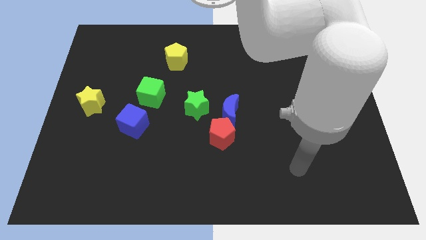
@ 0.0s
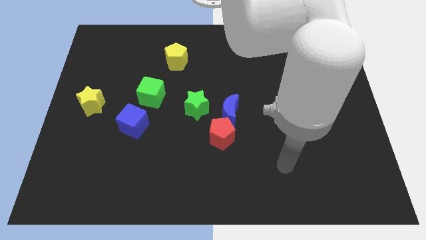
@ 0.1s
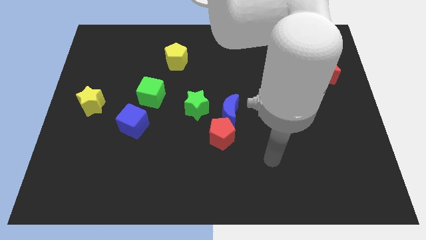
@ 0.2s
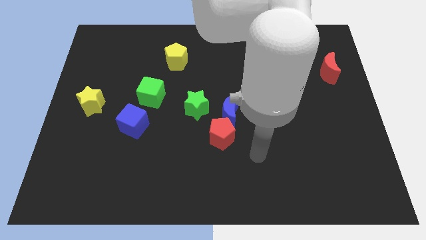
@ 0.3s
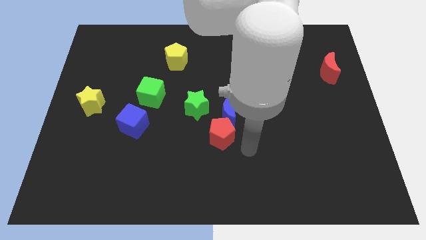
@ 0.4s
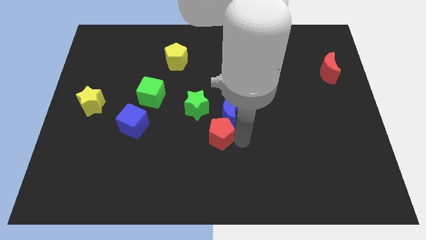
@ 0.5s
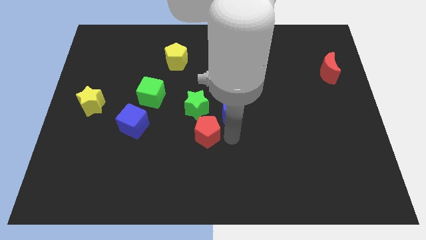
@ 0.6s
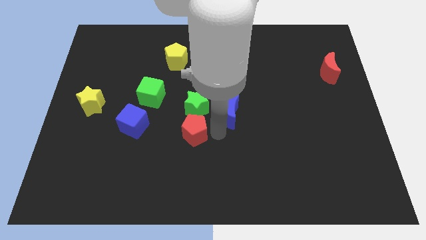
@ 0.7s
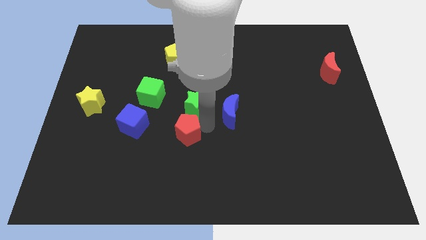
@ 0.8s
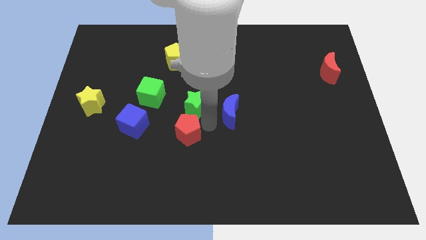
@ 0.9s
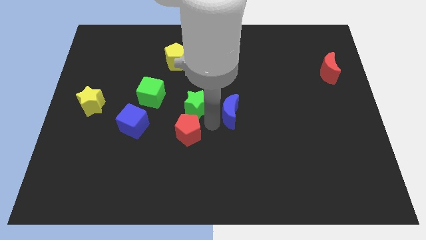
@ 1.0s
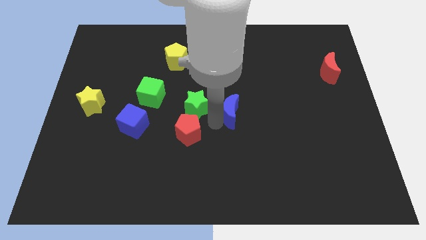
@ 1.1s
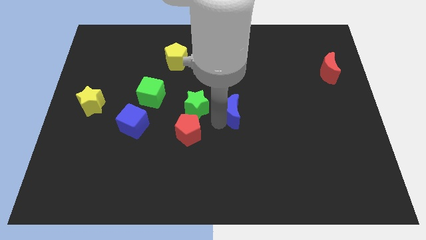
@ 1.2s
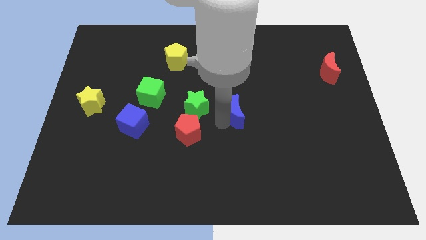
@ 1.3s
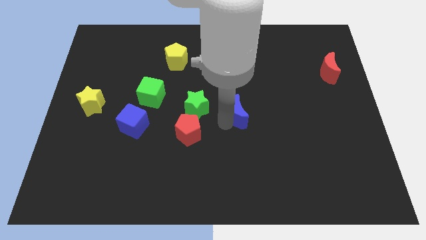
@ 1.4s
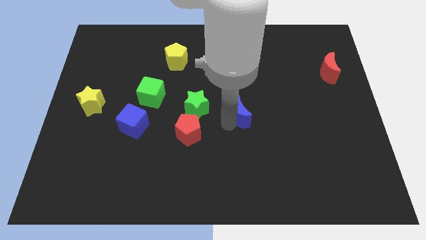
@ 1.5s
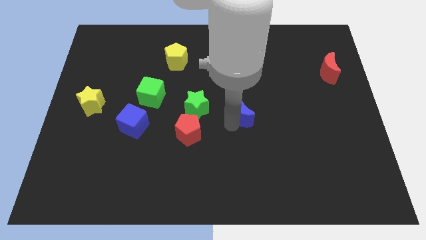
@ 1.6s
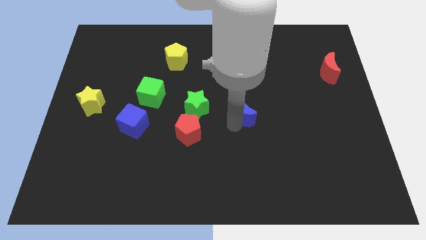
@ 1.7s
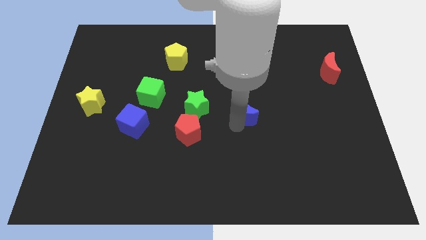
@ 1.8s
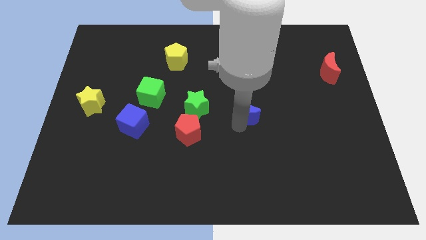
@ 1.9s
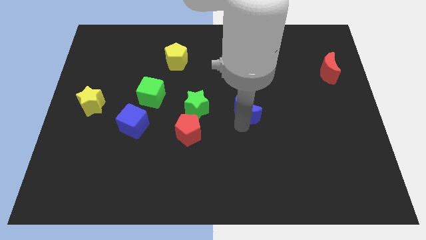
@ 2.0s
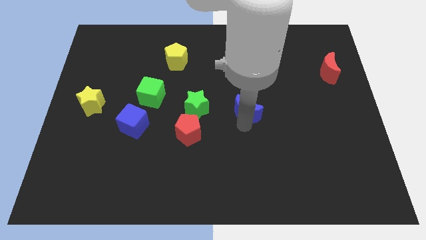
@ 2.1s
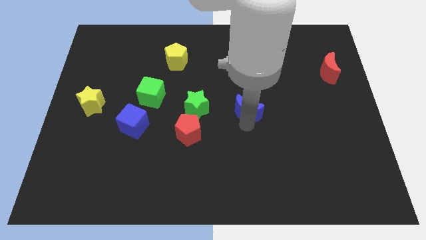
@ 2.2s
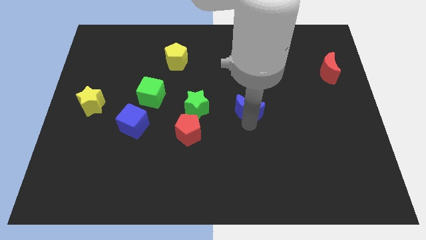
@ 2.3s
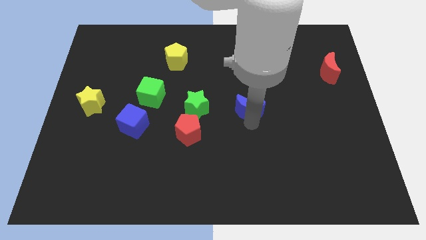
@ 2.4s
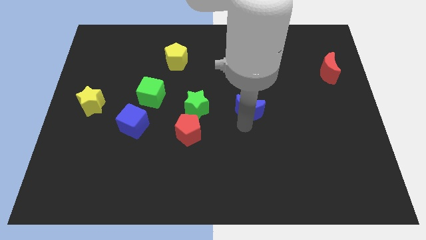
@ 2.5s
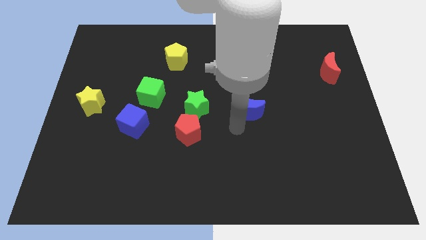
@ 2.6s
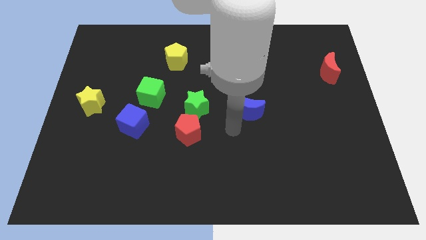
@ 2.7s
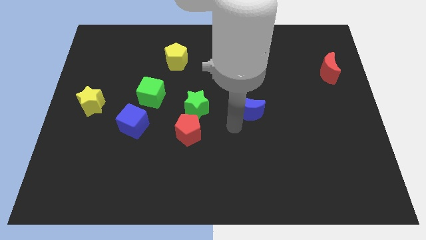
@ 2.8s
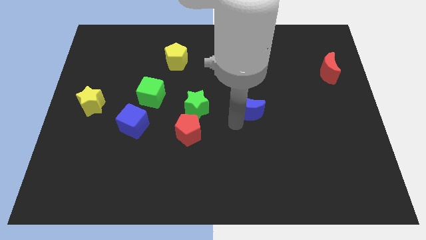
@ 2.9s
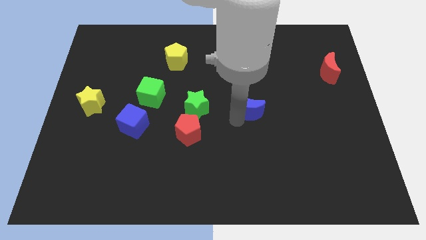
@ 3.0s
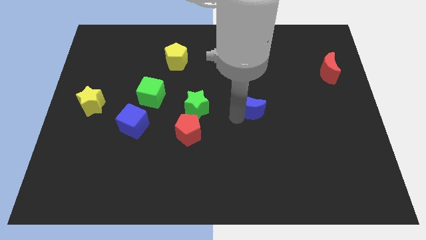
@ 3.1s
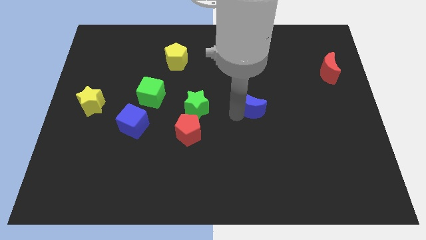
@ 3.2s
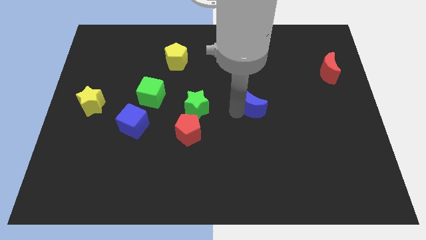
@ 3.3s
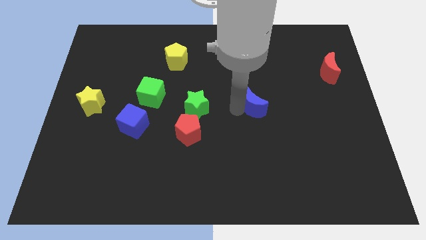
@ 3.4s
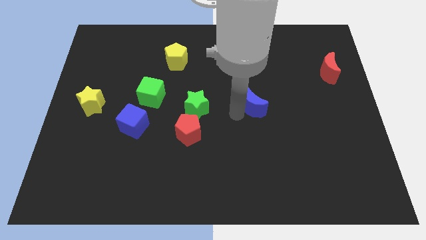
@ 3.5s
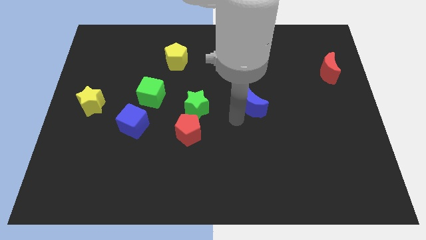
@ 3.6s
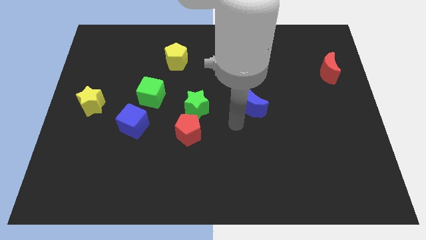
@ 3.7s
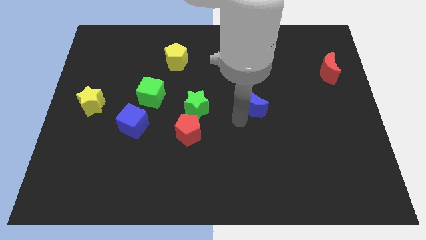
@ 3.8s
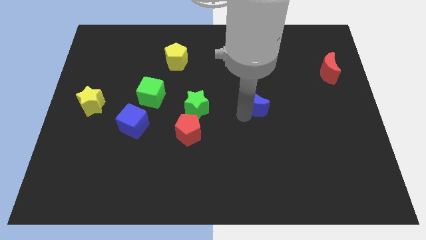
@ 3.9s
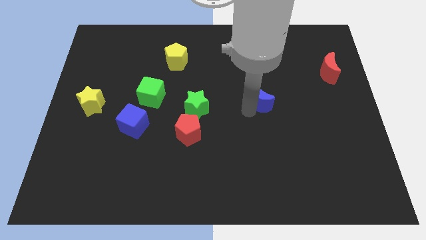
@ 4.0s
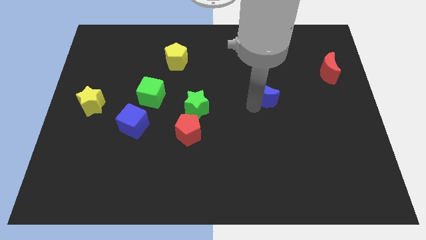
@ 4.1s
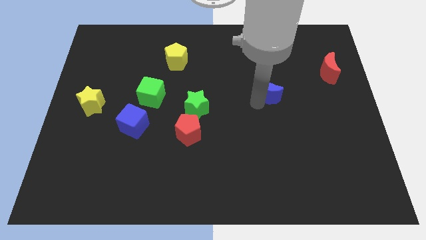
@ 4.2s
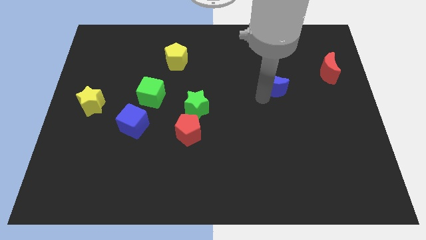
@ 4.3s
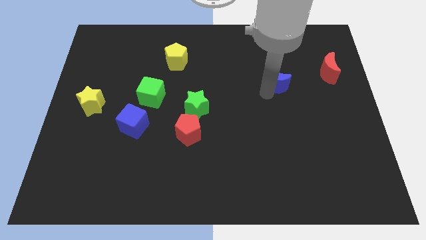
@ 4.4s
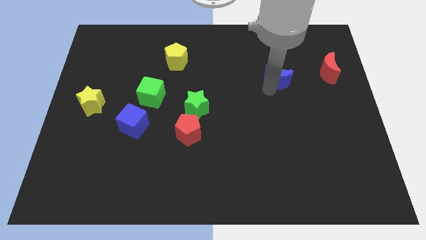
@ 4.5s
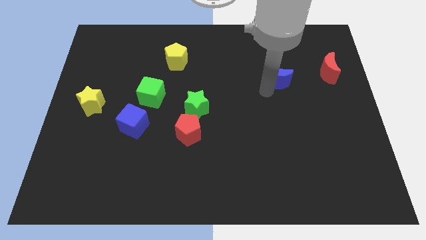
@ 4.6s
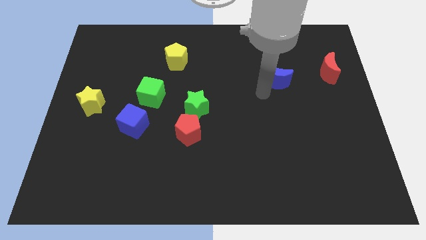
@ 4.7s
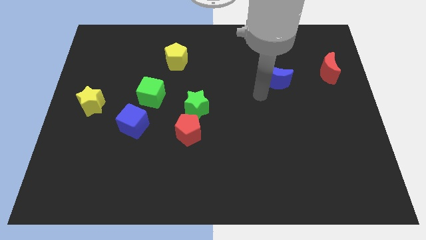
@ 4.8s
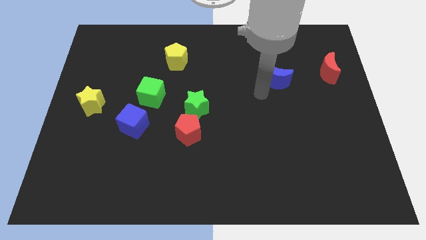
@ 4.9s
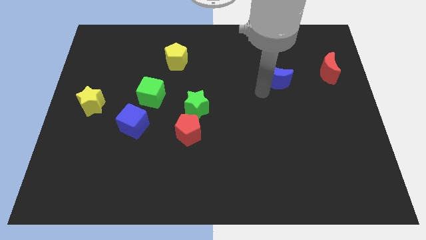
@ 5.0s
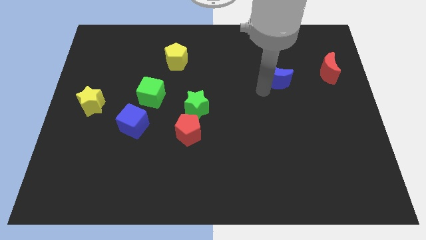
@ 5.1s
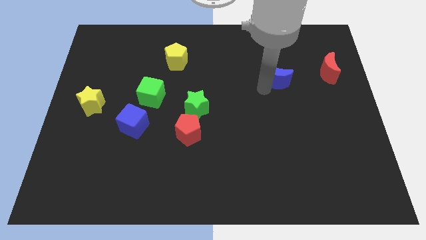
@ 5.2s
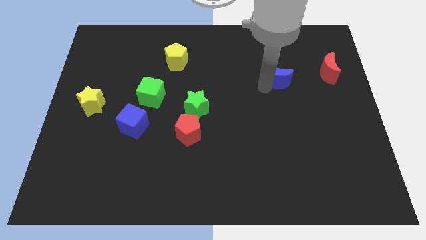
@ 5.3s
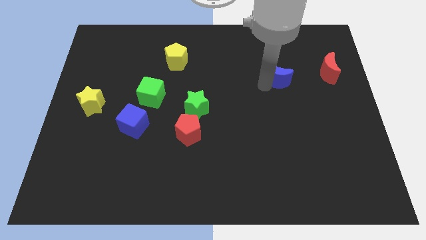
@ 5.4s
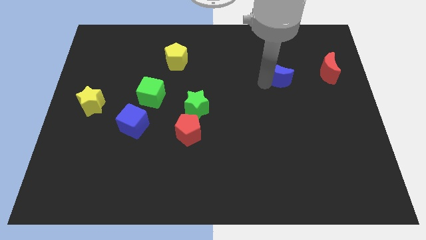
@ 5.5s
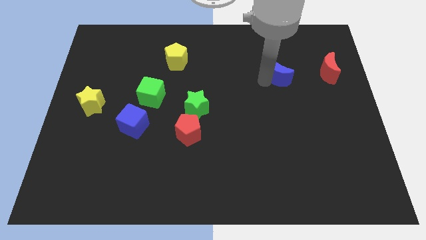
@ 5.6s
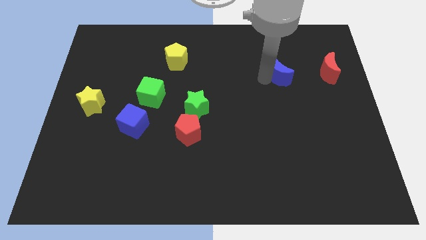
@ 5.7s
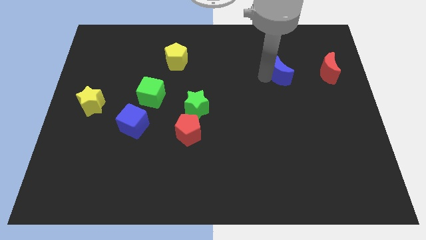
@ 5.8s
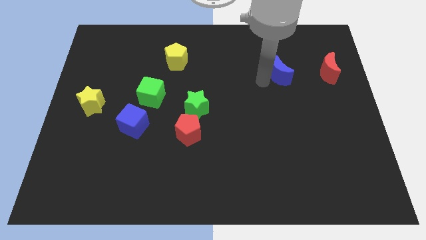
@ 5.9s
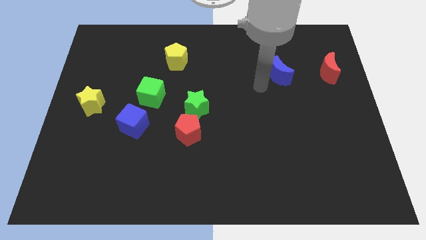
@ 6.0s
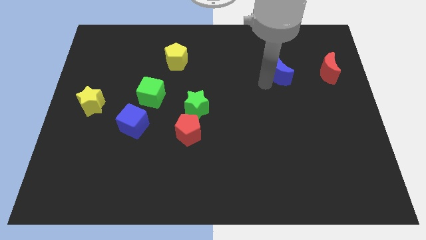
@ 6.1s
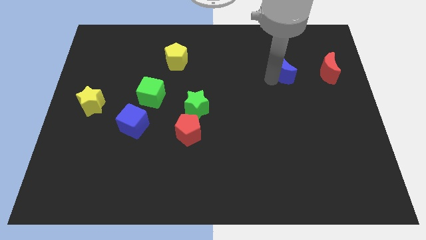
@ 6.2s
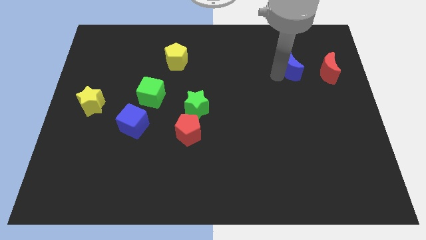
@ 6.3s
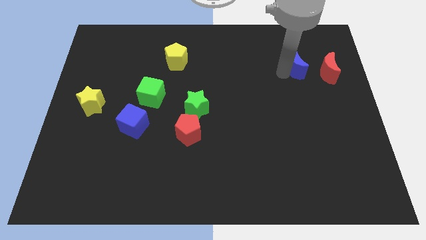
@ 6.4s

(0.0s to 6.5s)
slide the blue moon to the top left side of the red moon
